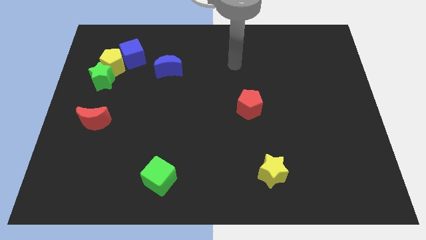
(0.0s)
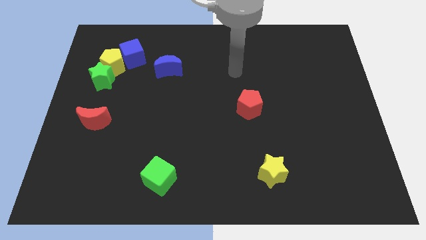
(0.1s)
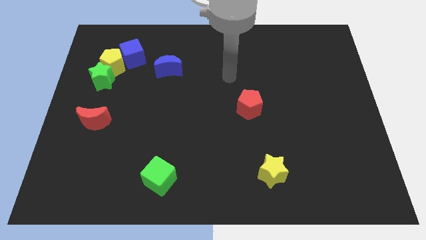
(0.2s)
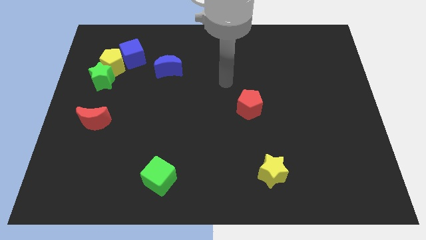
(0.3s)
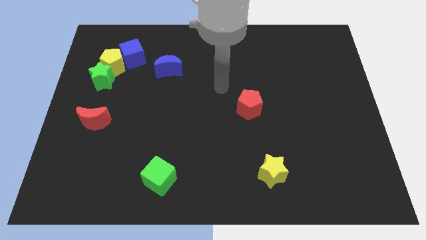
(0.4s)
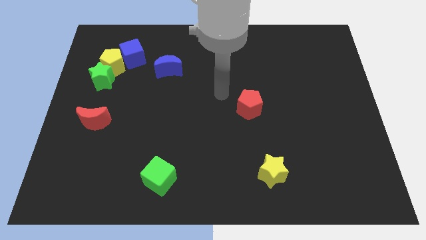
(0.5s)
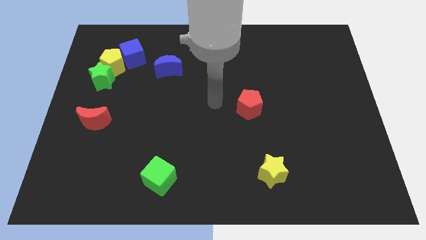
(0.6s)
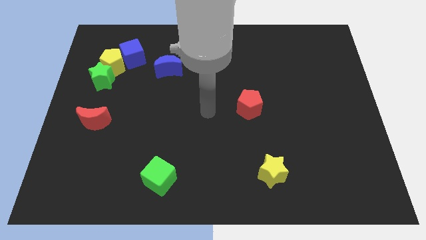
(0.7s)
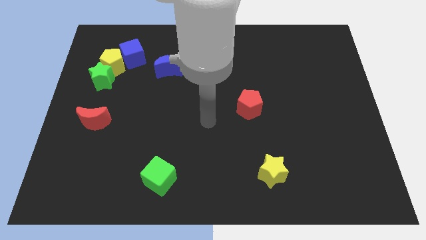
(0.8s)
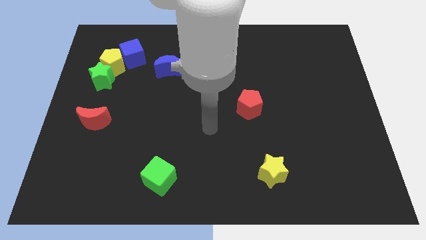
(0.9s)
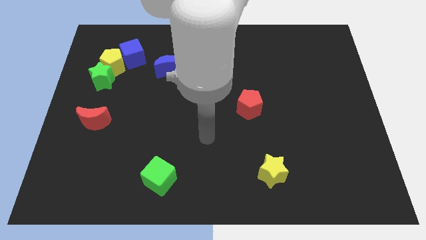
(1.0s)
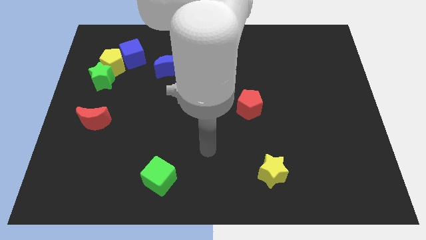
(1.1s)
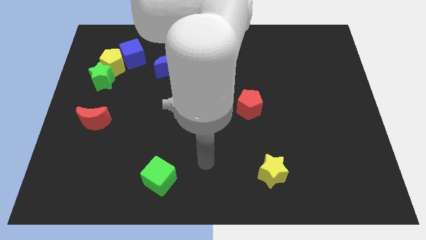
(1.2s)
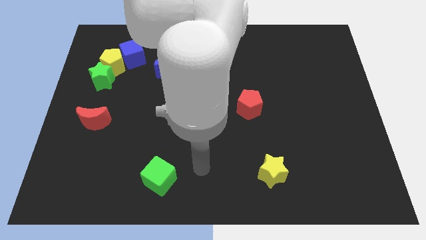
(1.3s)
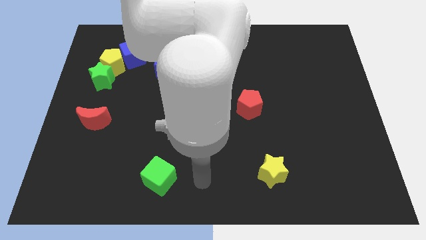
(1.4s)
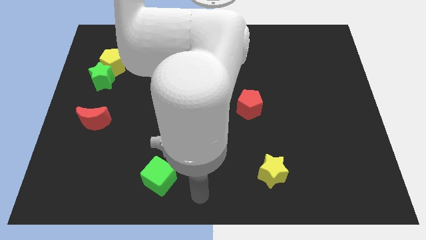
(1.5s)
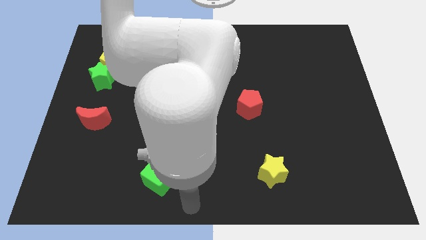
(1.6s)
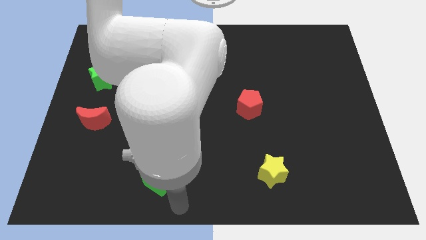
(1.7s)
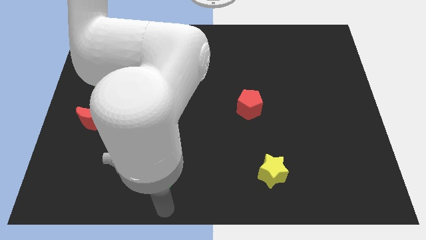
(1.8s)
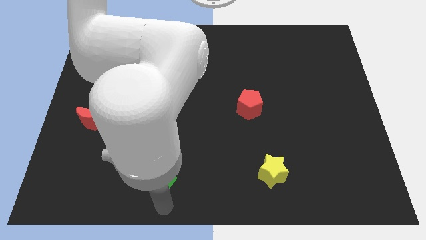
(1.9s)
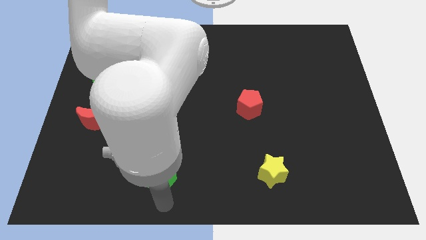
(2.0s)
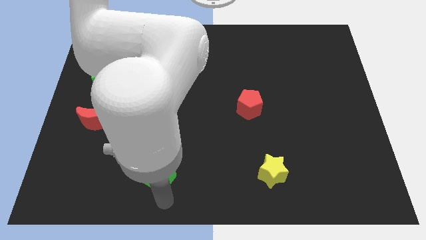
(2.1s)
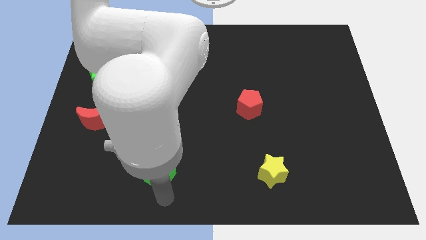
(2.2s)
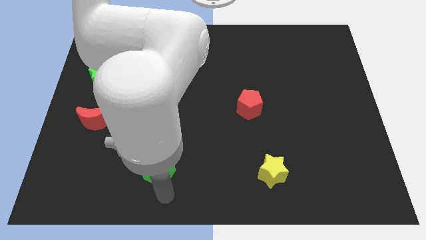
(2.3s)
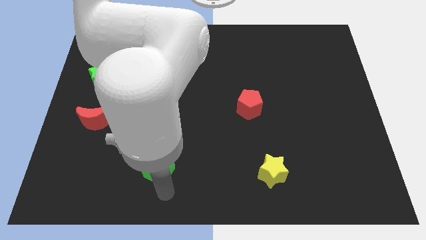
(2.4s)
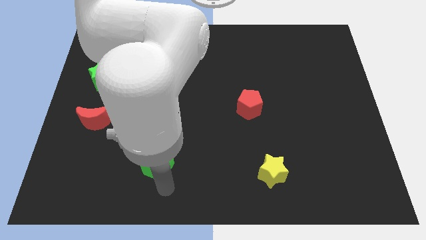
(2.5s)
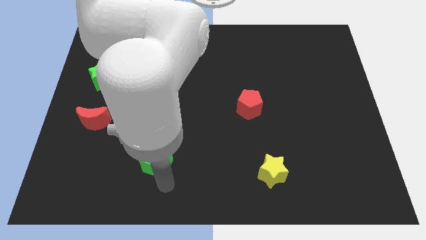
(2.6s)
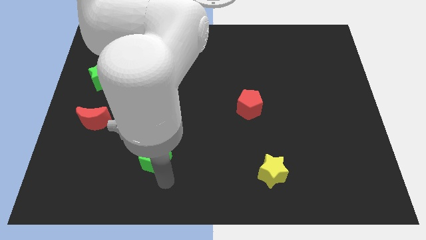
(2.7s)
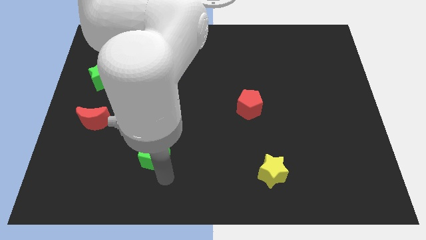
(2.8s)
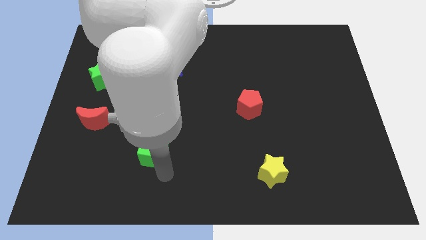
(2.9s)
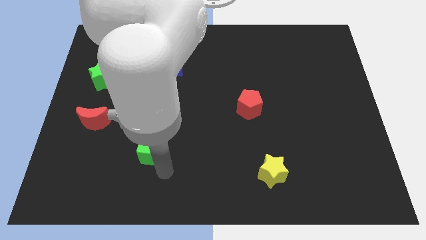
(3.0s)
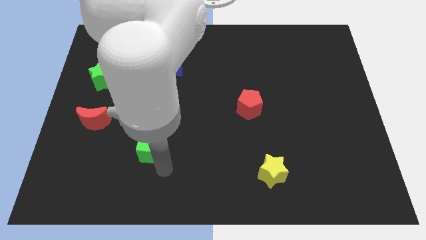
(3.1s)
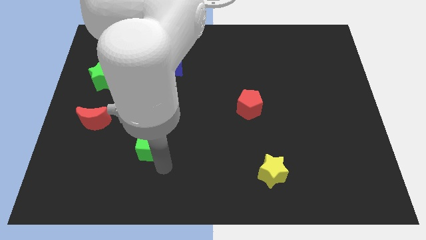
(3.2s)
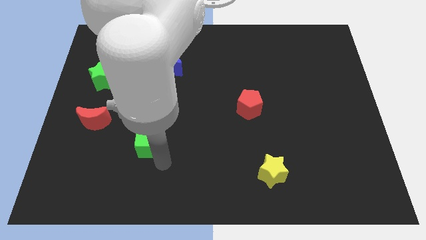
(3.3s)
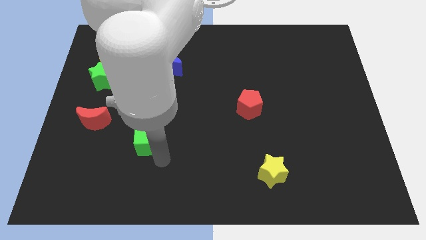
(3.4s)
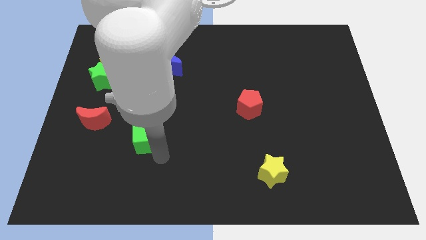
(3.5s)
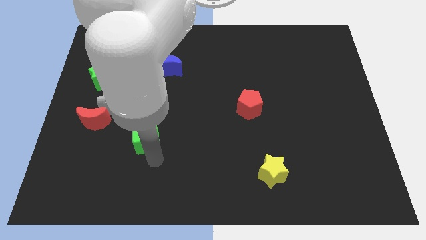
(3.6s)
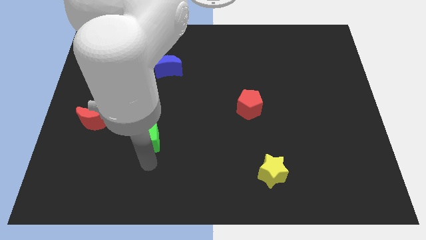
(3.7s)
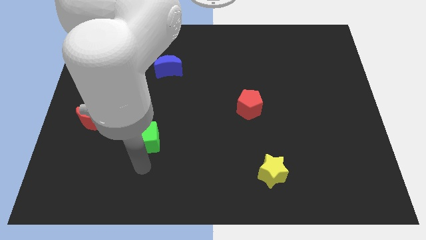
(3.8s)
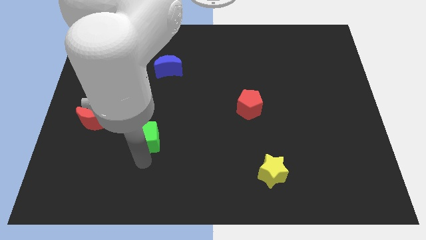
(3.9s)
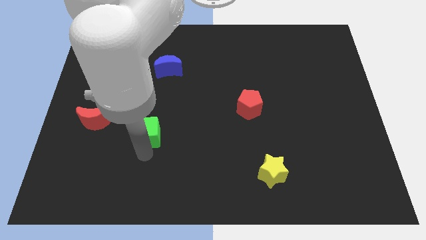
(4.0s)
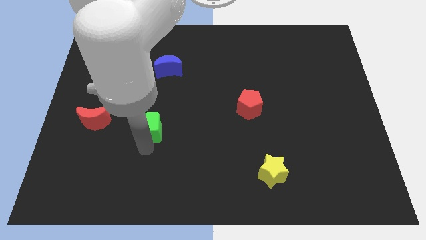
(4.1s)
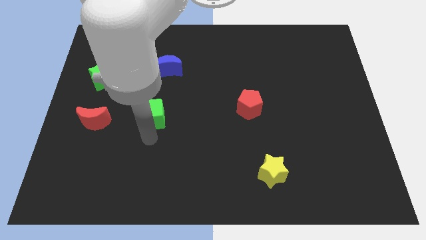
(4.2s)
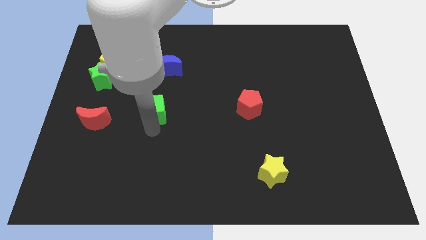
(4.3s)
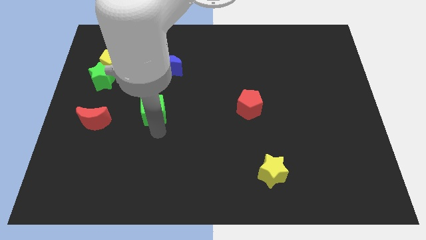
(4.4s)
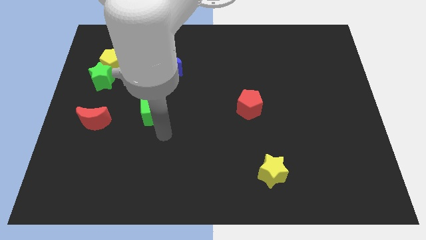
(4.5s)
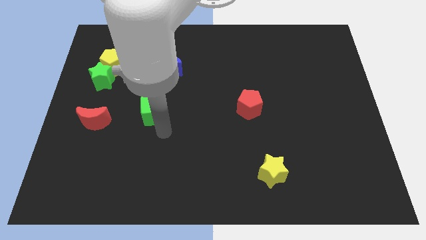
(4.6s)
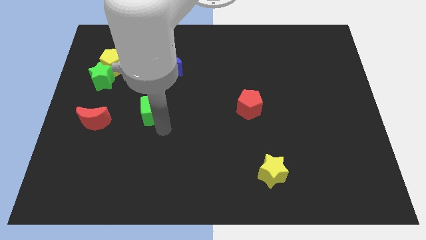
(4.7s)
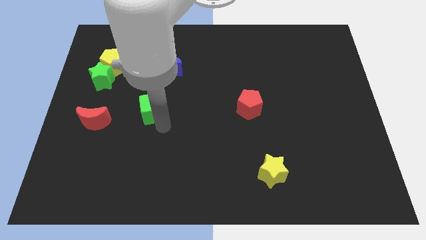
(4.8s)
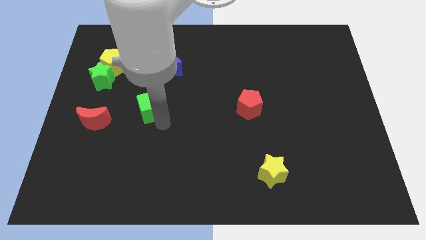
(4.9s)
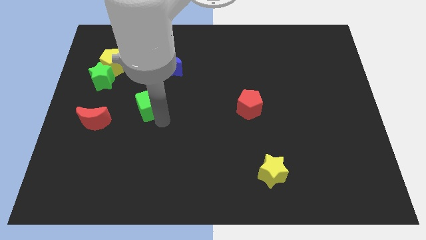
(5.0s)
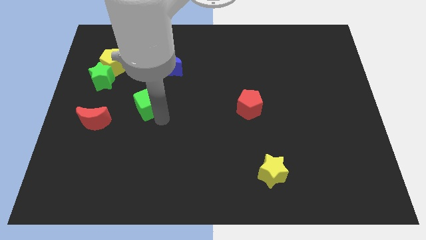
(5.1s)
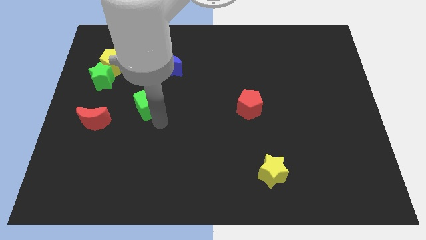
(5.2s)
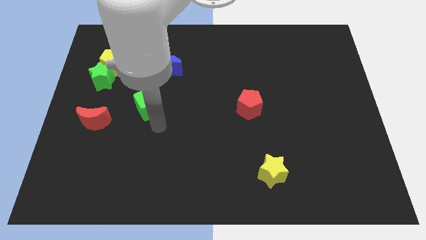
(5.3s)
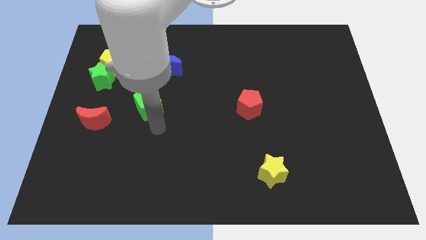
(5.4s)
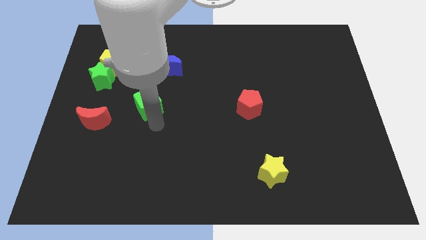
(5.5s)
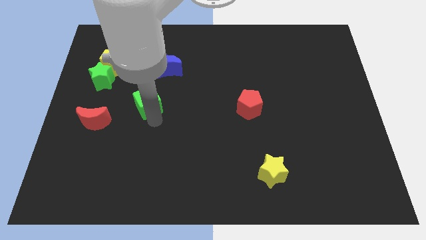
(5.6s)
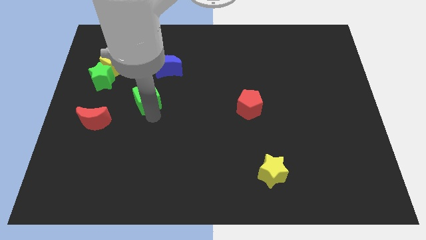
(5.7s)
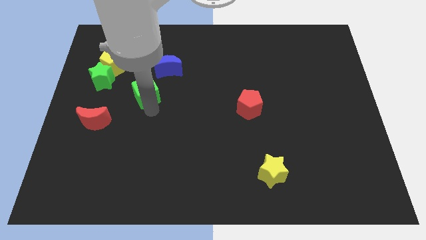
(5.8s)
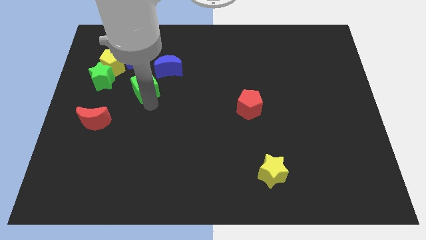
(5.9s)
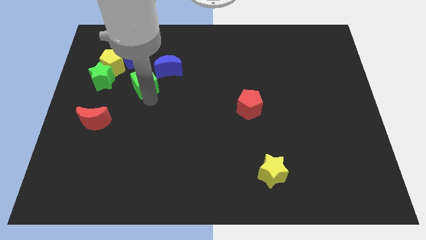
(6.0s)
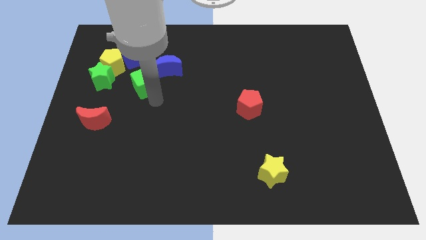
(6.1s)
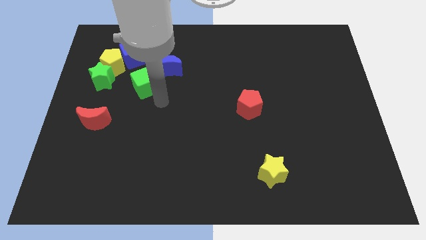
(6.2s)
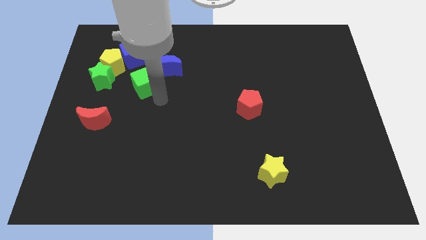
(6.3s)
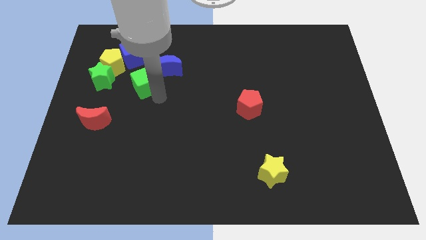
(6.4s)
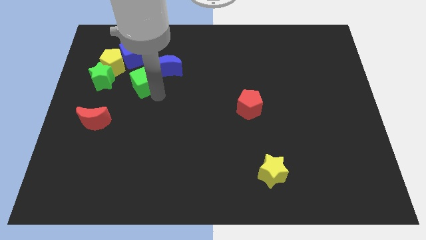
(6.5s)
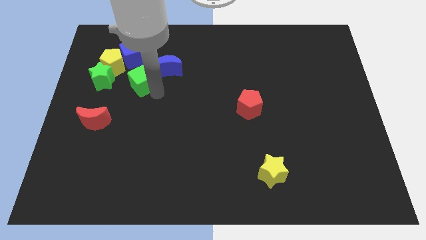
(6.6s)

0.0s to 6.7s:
put the green cube just left of the blue moon

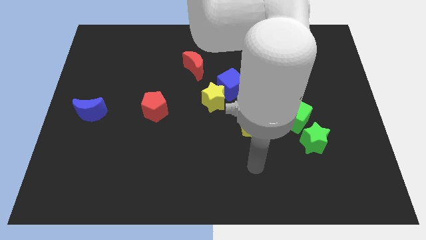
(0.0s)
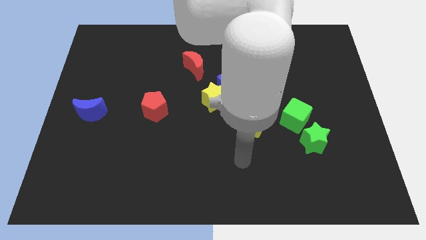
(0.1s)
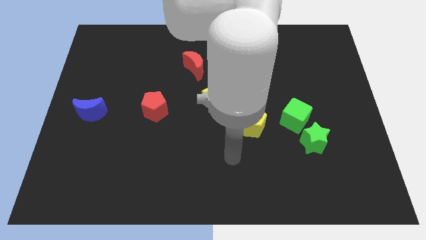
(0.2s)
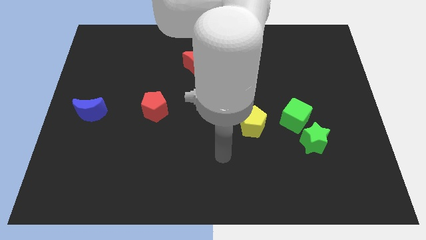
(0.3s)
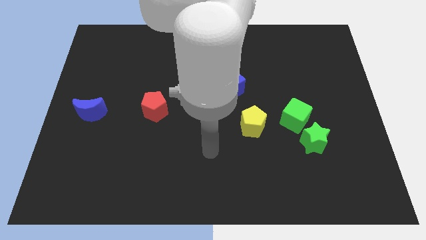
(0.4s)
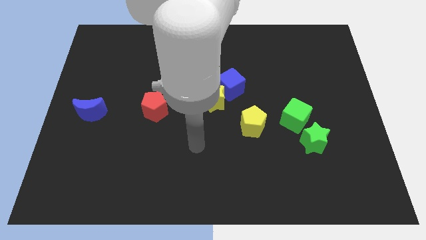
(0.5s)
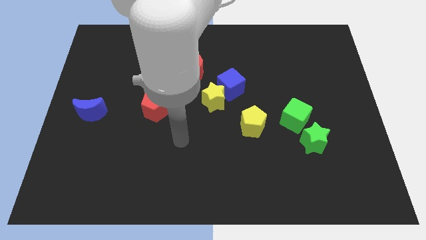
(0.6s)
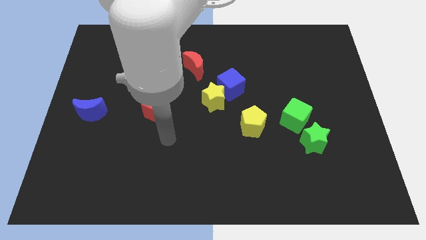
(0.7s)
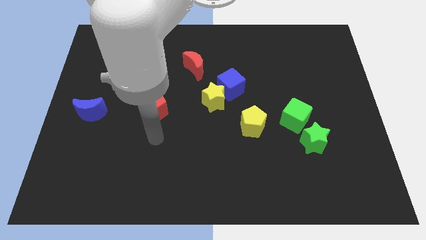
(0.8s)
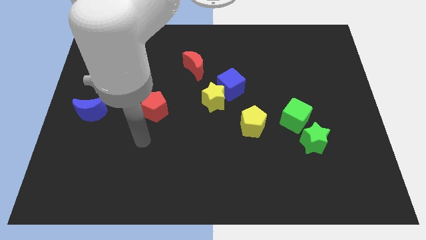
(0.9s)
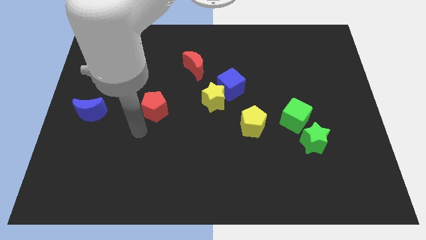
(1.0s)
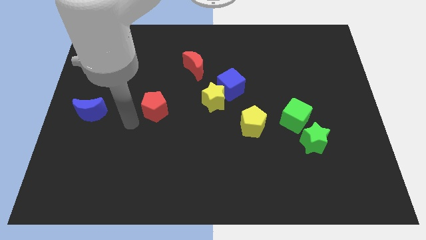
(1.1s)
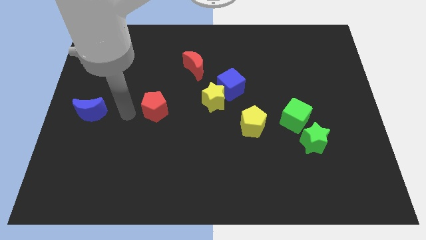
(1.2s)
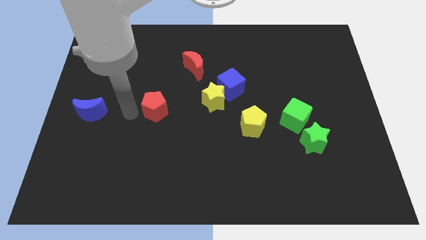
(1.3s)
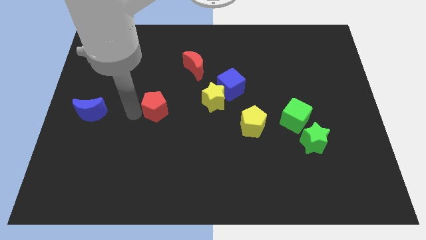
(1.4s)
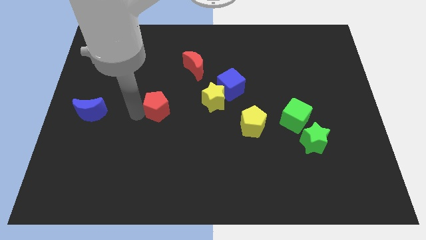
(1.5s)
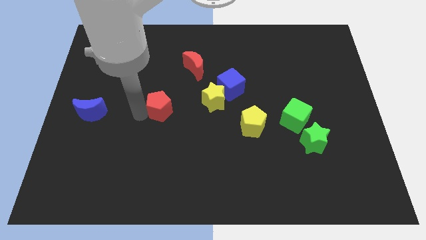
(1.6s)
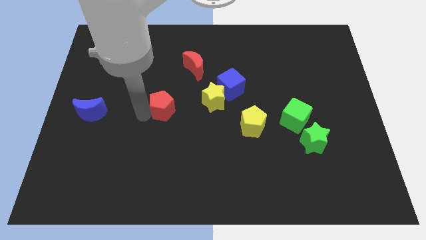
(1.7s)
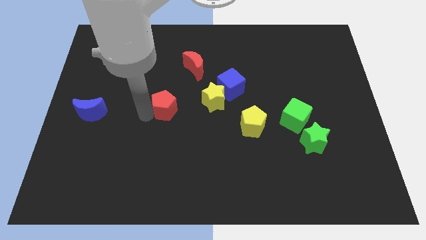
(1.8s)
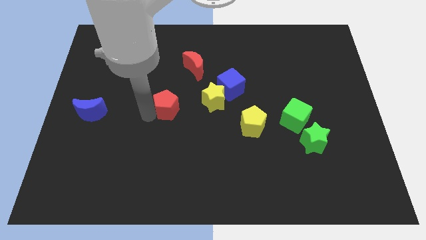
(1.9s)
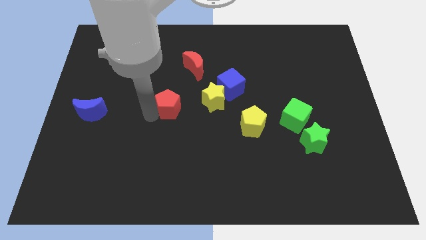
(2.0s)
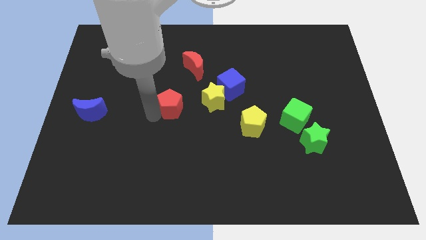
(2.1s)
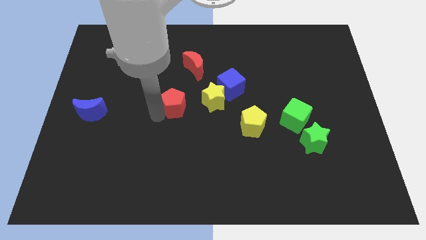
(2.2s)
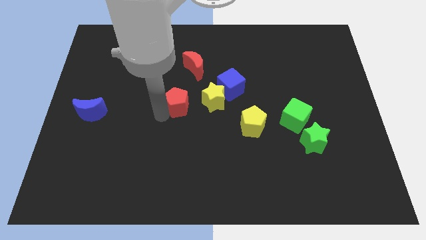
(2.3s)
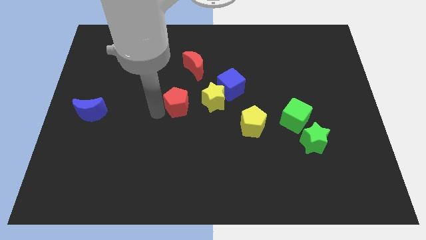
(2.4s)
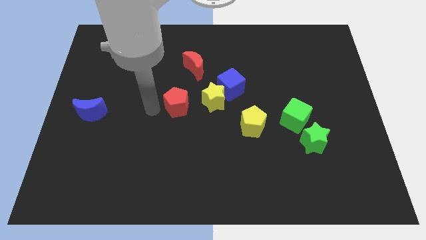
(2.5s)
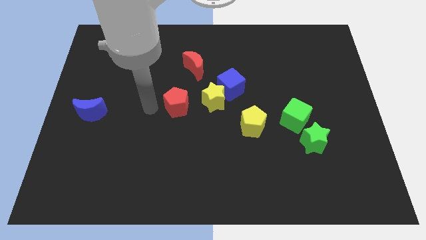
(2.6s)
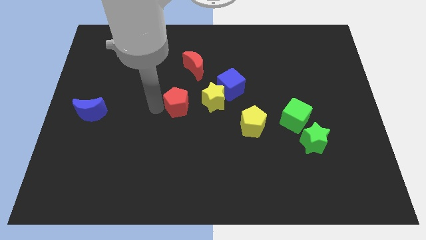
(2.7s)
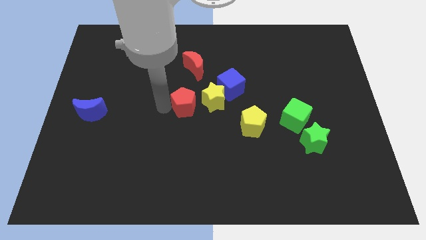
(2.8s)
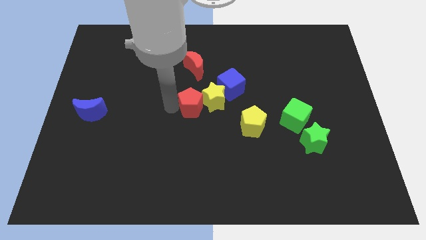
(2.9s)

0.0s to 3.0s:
slide the red pentagon diagonally down and to the left of the blue cube
